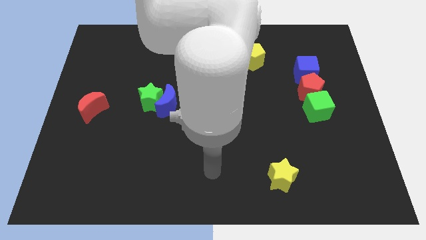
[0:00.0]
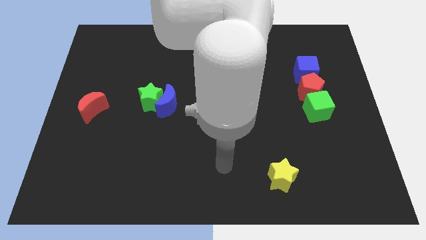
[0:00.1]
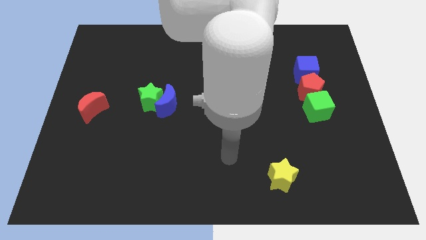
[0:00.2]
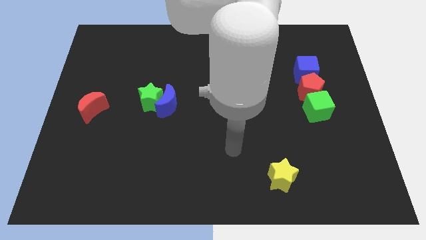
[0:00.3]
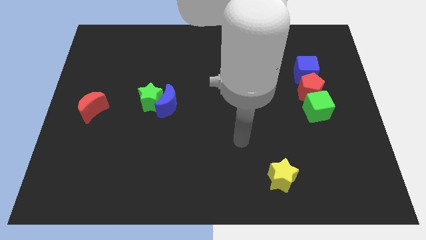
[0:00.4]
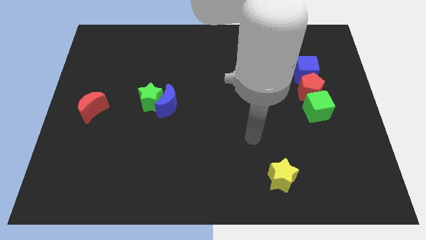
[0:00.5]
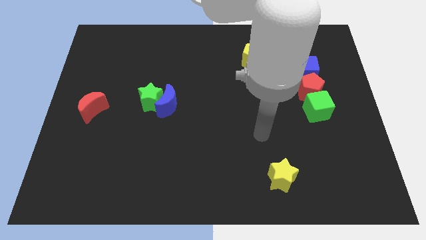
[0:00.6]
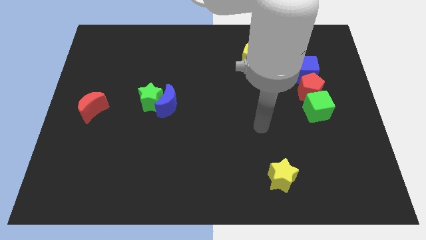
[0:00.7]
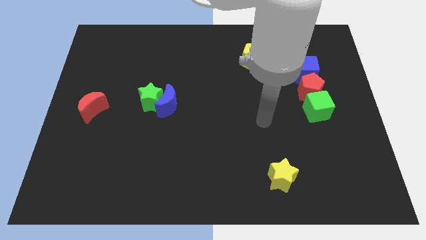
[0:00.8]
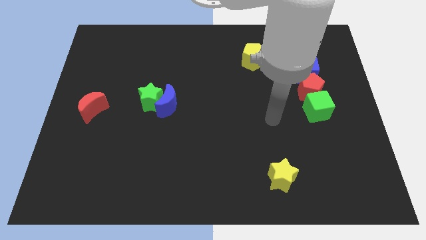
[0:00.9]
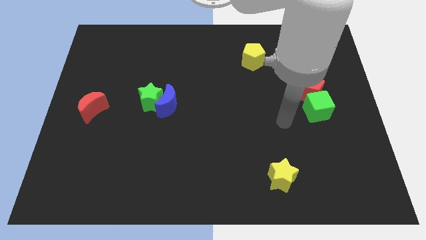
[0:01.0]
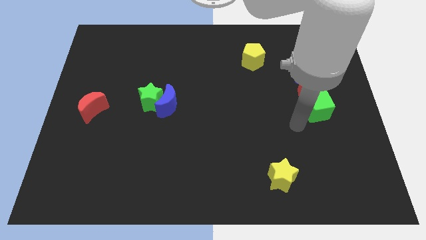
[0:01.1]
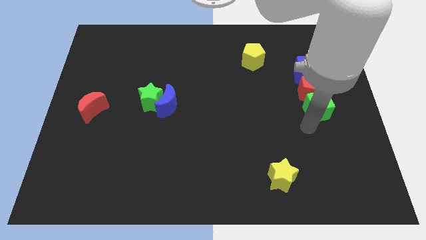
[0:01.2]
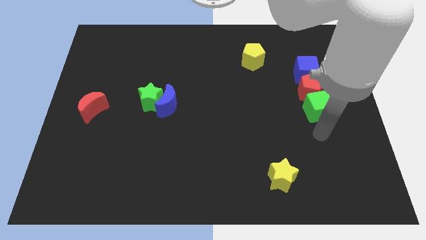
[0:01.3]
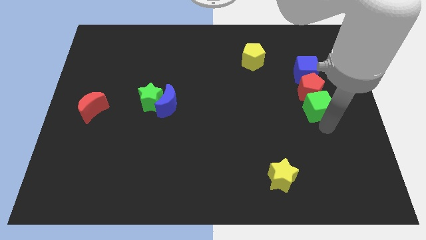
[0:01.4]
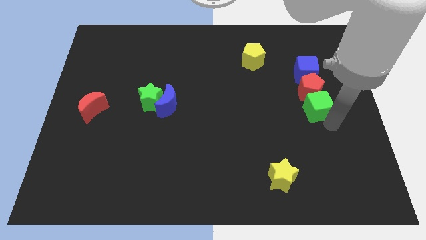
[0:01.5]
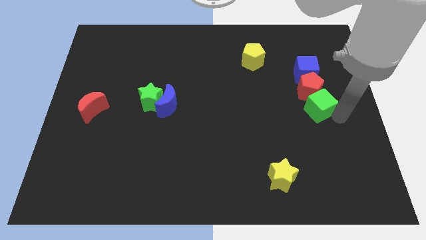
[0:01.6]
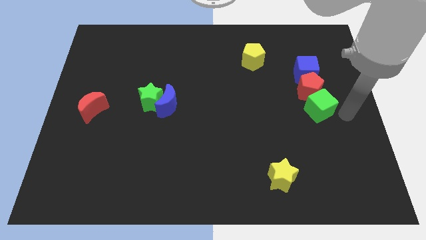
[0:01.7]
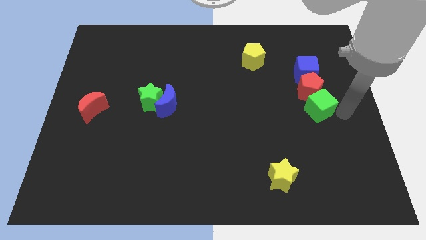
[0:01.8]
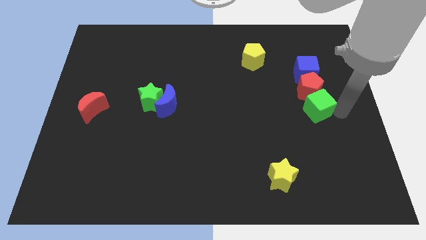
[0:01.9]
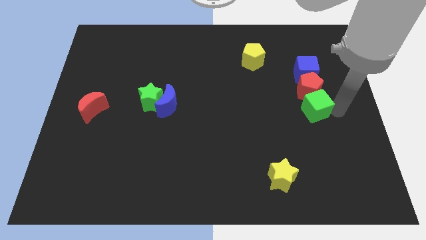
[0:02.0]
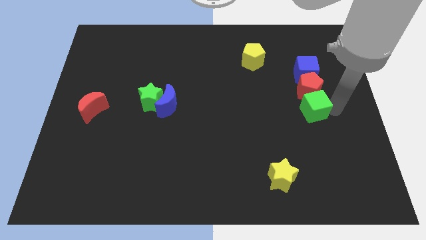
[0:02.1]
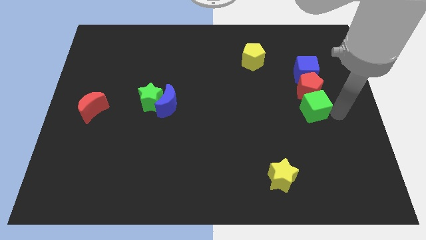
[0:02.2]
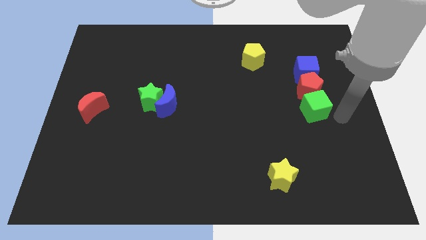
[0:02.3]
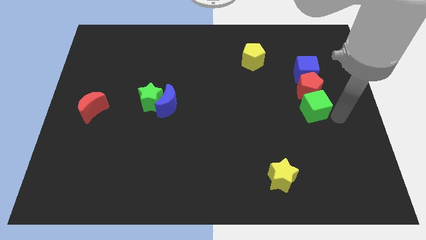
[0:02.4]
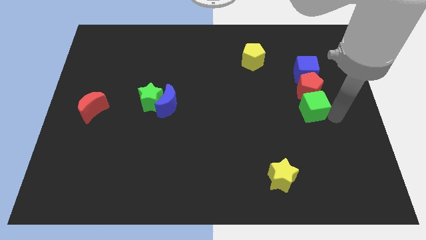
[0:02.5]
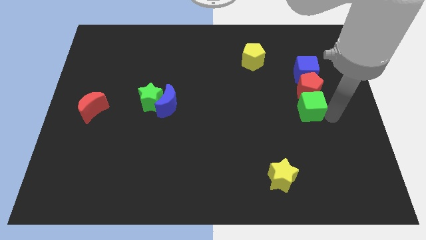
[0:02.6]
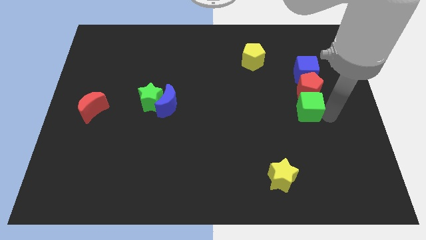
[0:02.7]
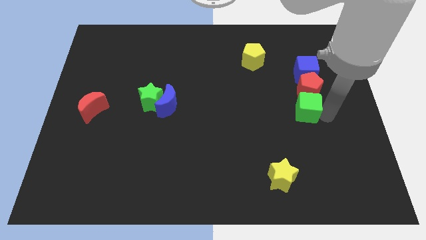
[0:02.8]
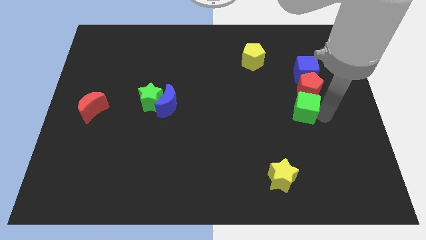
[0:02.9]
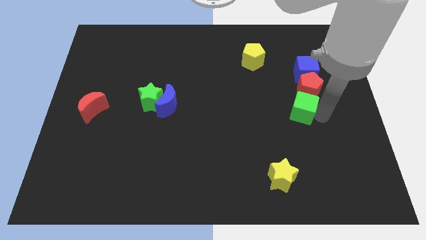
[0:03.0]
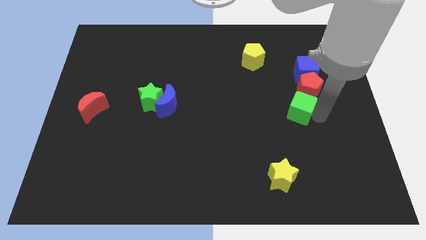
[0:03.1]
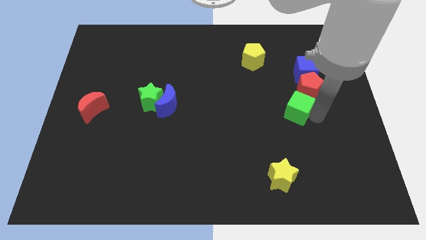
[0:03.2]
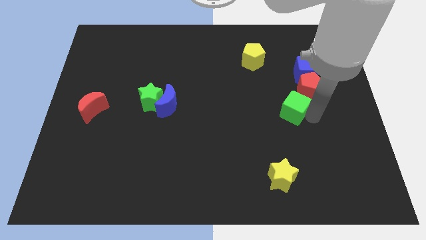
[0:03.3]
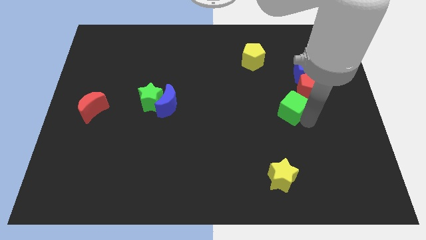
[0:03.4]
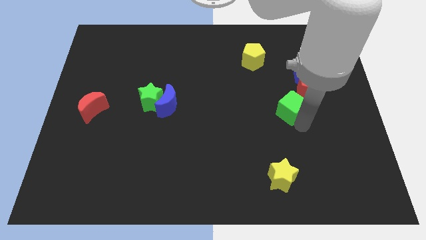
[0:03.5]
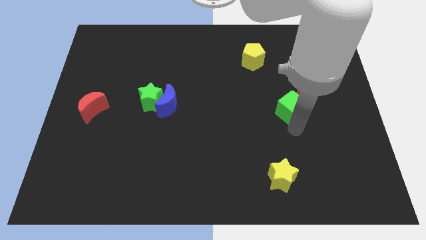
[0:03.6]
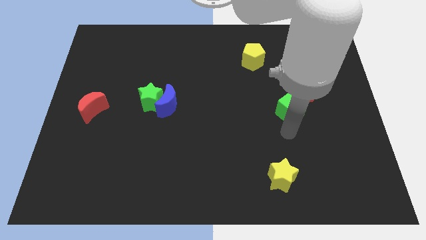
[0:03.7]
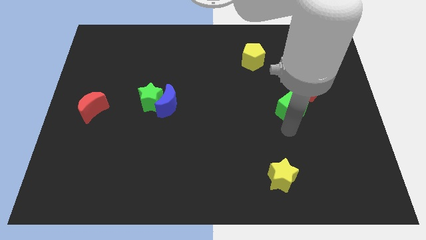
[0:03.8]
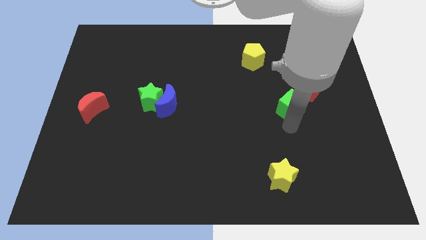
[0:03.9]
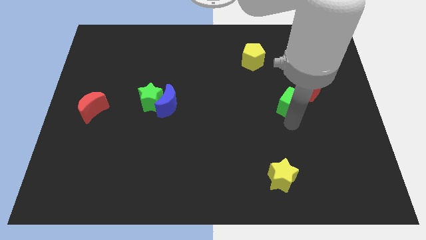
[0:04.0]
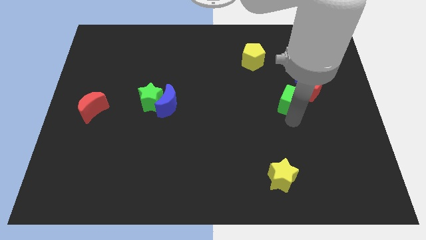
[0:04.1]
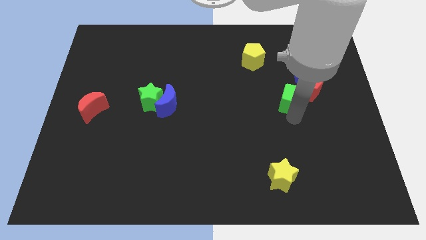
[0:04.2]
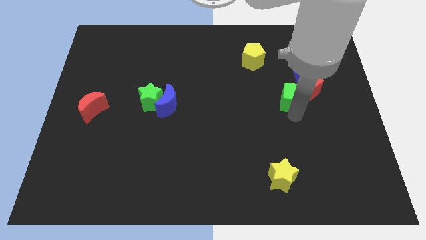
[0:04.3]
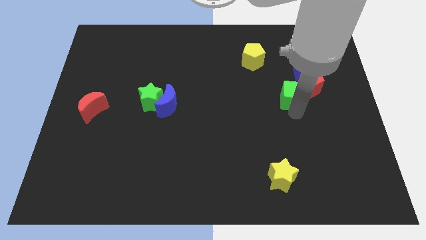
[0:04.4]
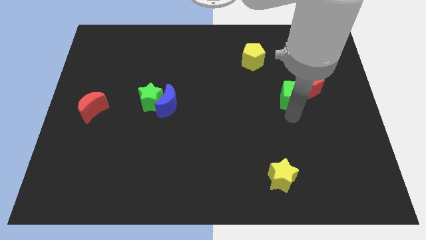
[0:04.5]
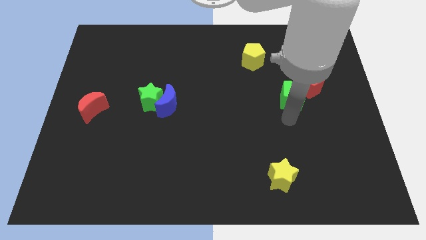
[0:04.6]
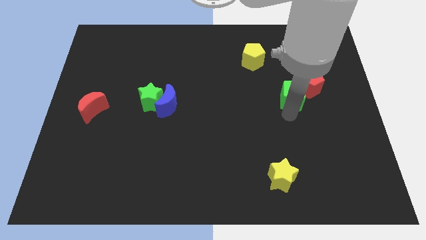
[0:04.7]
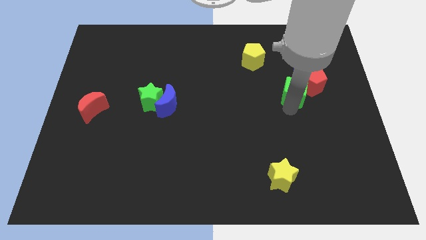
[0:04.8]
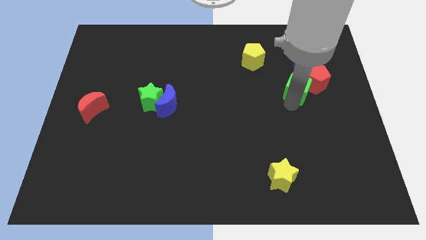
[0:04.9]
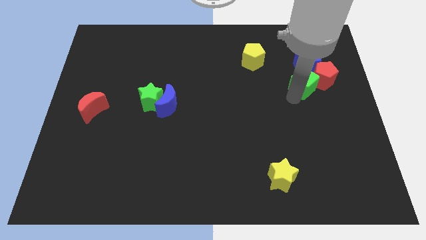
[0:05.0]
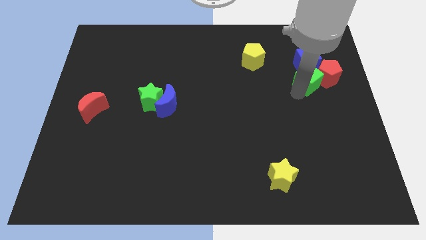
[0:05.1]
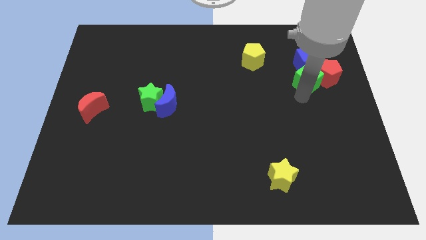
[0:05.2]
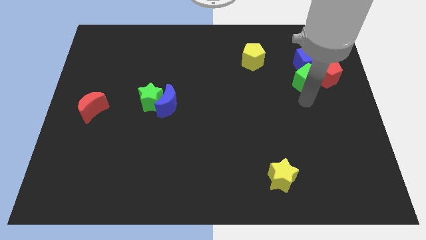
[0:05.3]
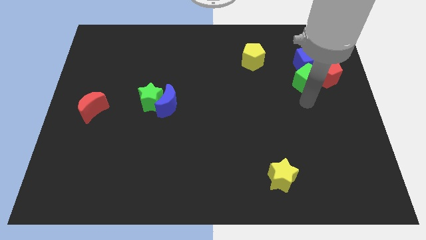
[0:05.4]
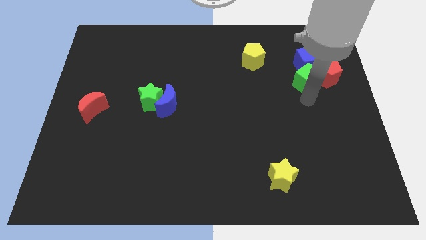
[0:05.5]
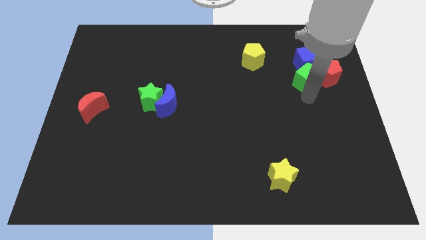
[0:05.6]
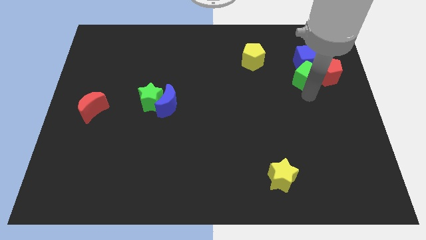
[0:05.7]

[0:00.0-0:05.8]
slide the green cube to the blue cube

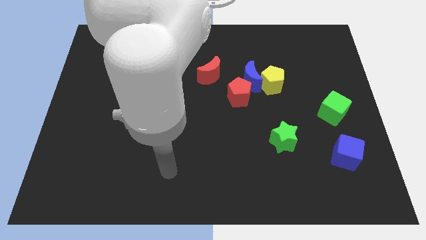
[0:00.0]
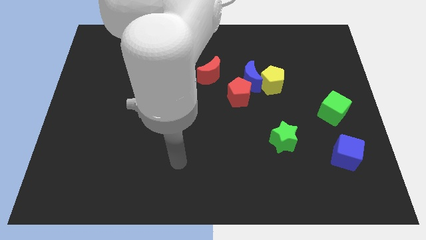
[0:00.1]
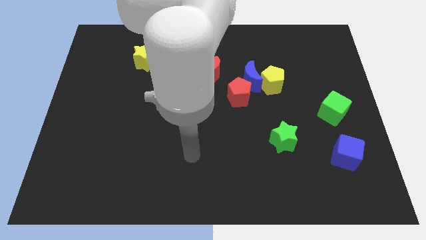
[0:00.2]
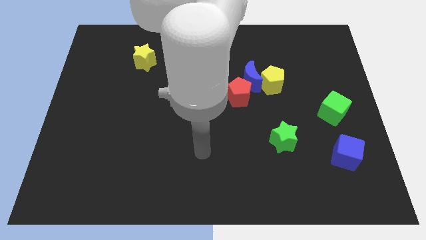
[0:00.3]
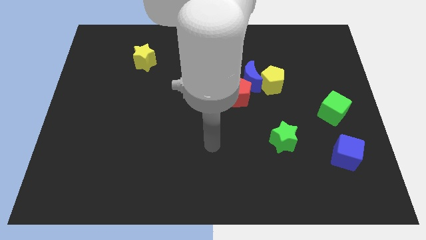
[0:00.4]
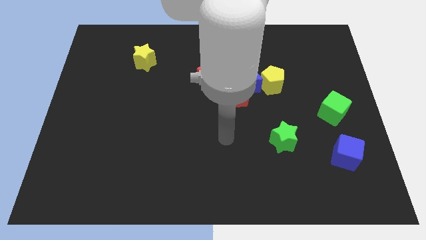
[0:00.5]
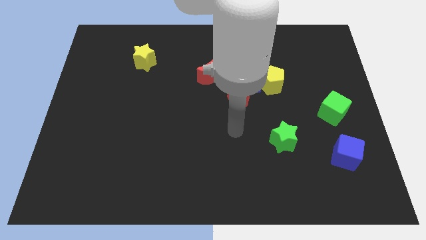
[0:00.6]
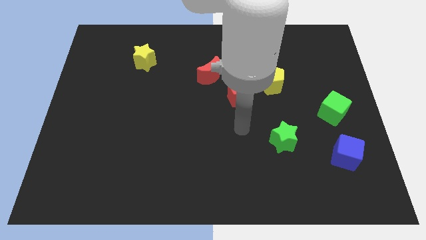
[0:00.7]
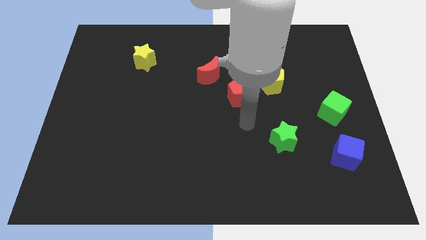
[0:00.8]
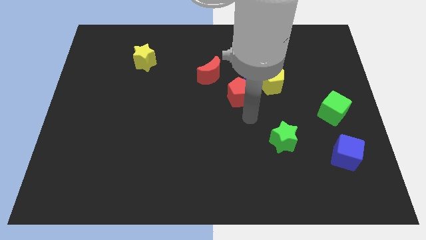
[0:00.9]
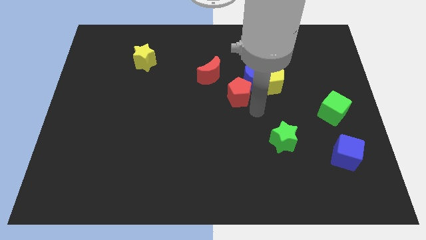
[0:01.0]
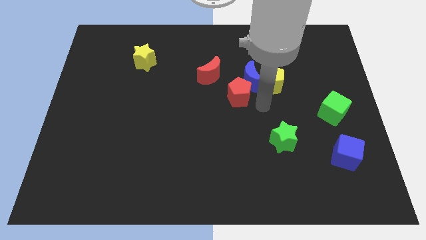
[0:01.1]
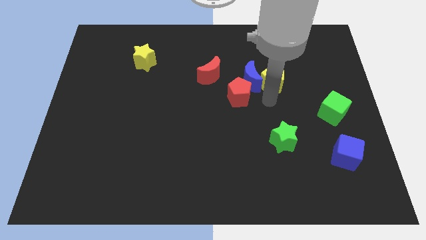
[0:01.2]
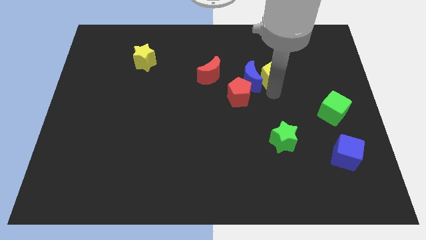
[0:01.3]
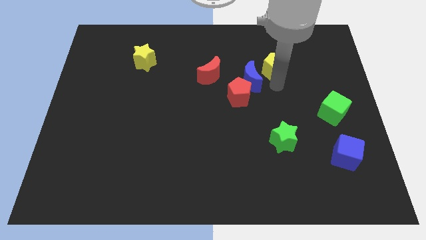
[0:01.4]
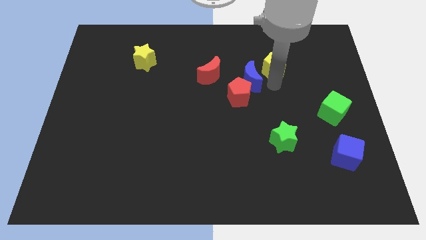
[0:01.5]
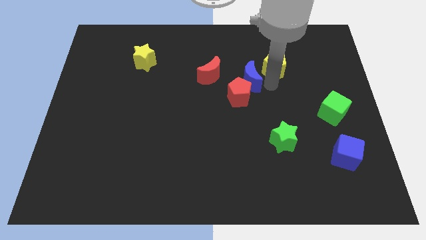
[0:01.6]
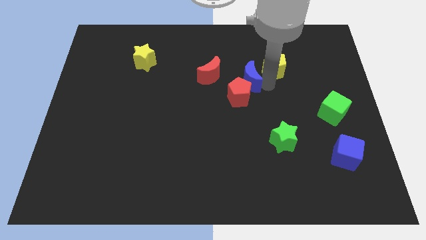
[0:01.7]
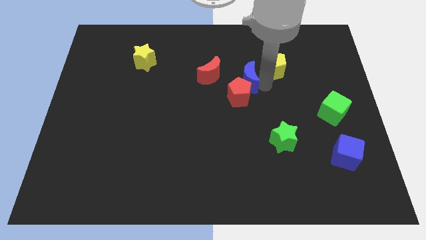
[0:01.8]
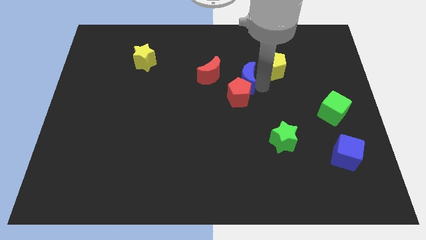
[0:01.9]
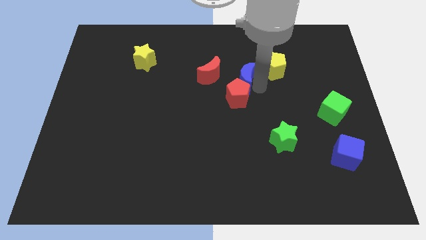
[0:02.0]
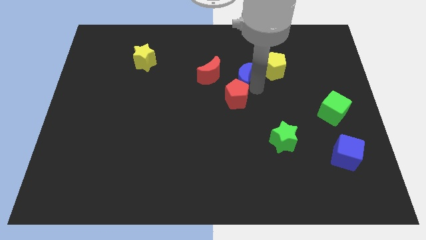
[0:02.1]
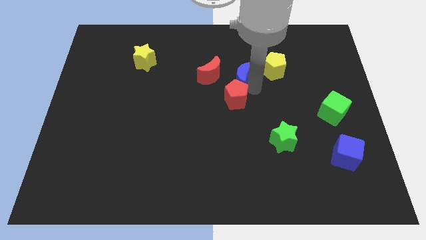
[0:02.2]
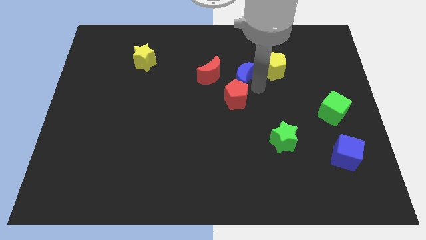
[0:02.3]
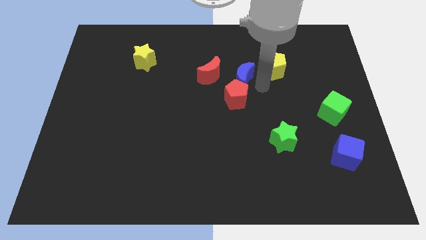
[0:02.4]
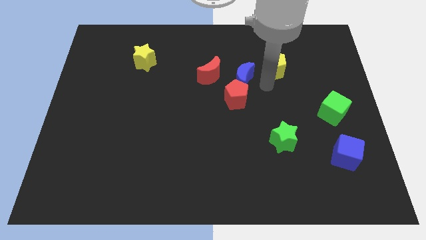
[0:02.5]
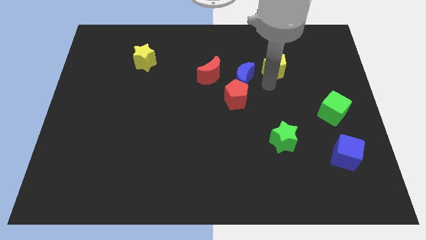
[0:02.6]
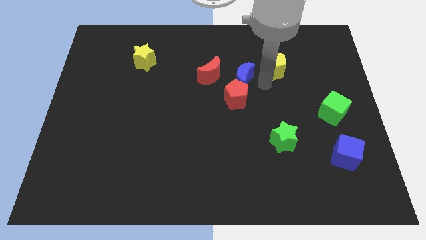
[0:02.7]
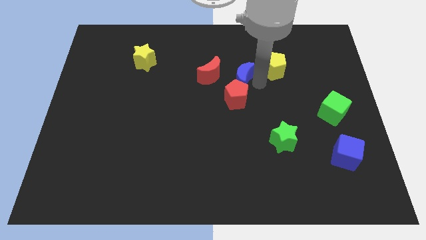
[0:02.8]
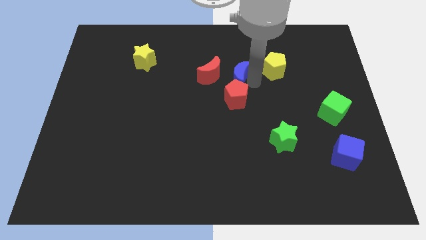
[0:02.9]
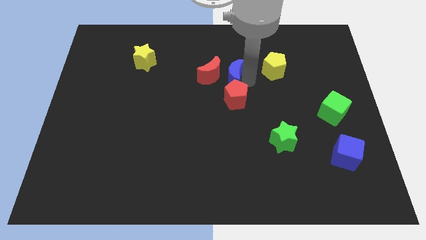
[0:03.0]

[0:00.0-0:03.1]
push the blue moon to the red moon
